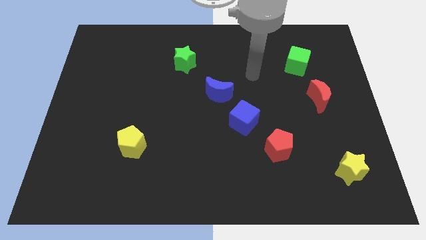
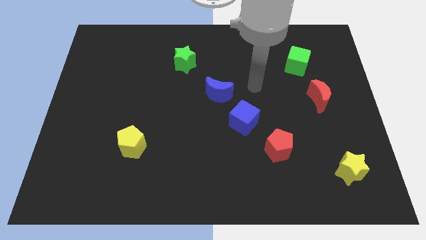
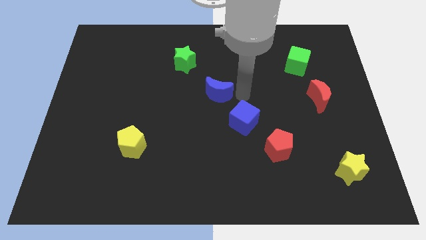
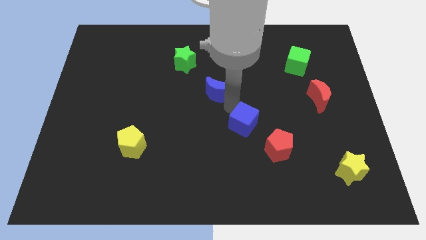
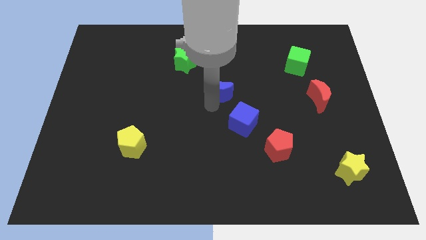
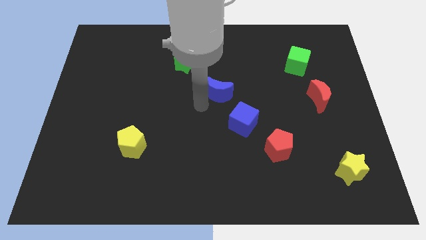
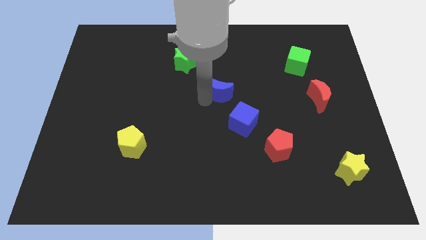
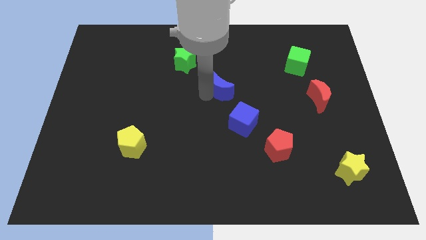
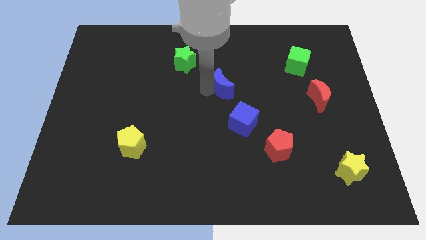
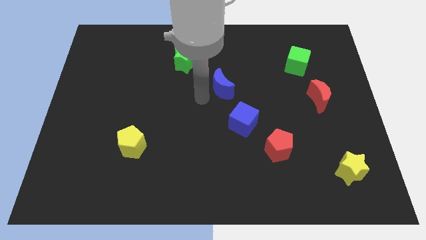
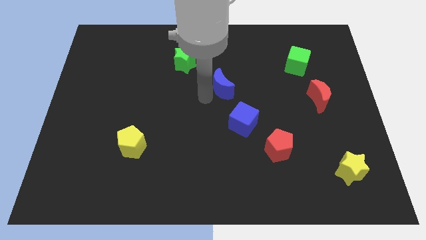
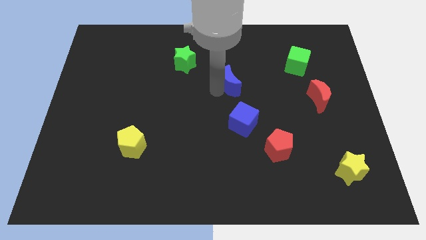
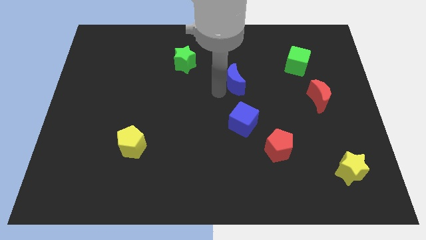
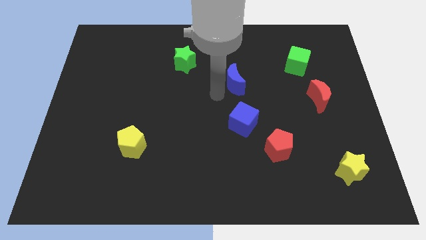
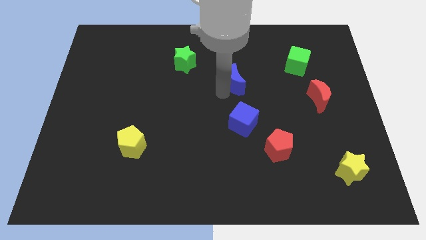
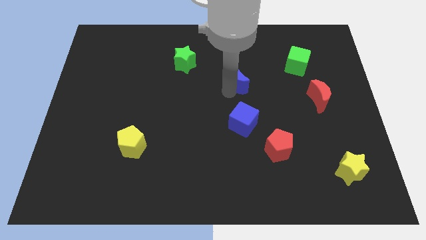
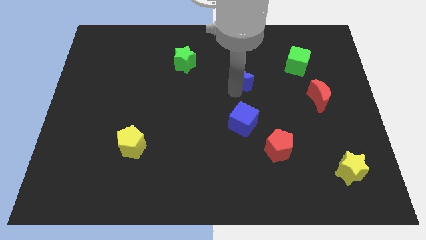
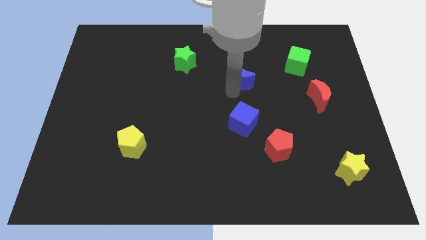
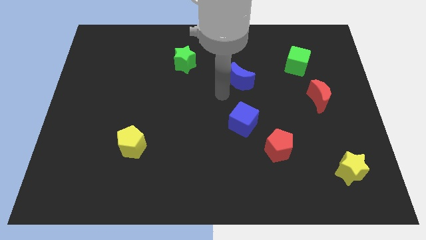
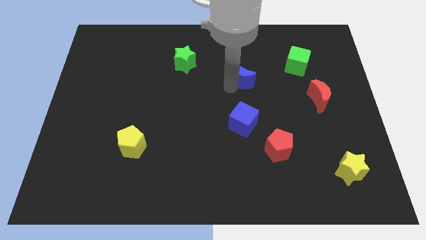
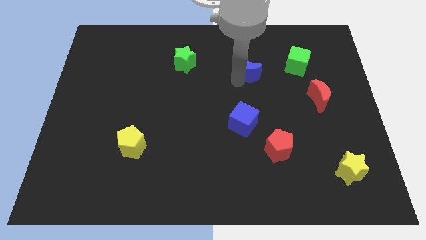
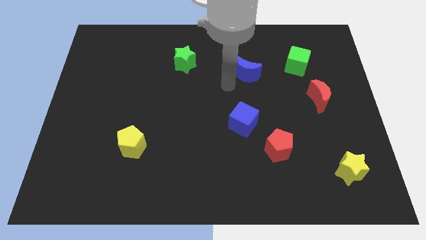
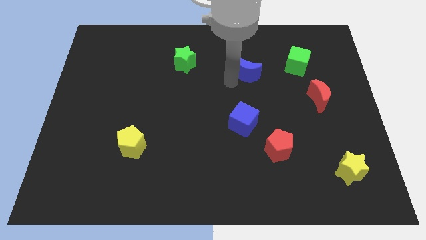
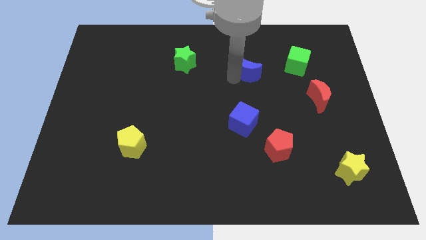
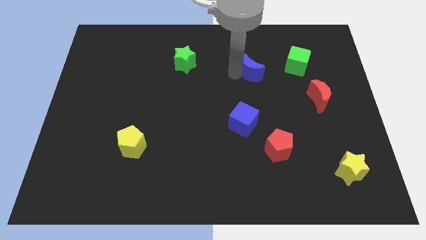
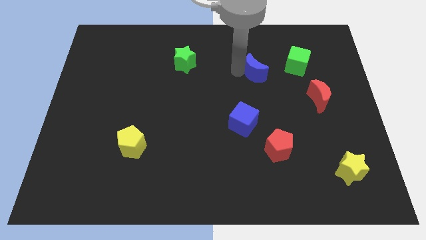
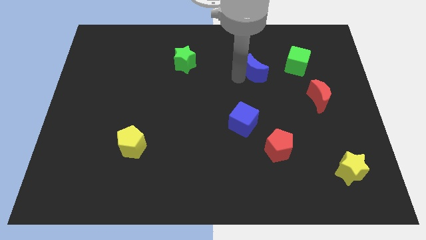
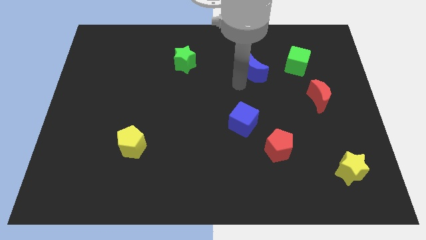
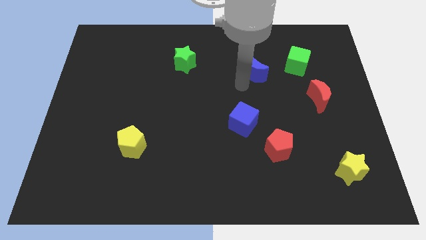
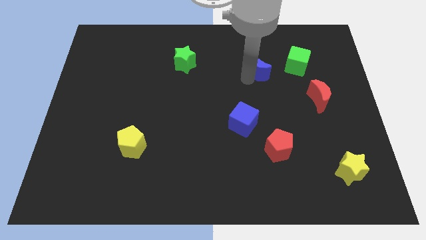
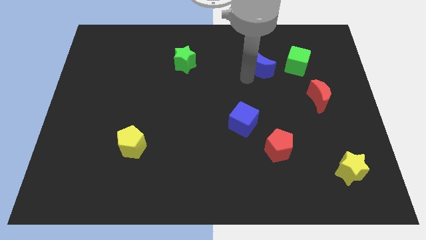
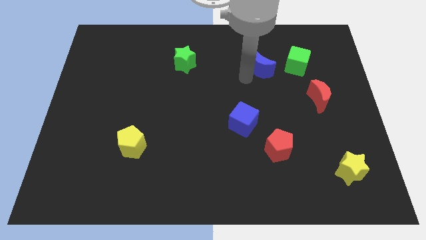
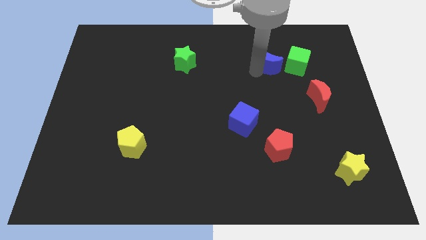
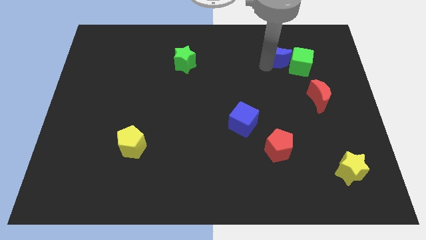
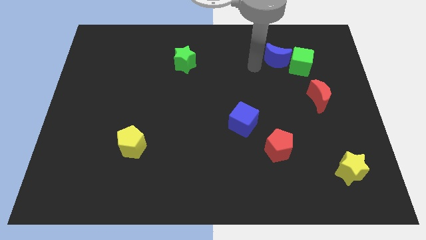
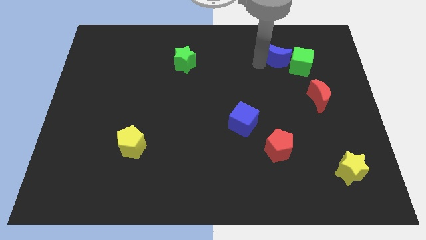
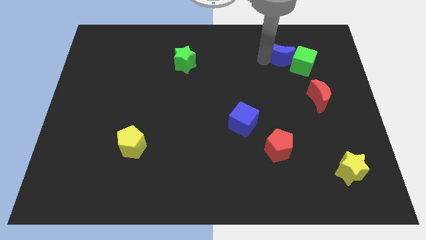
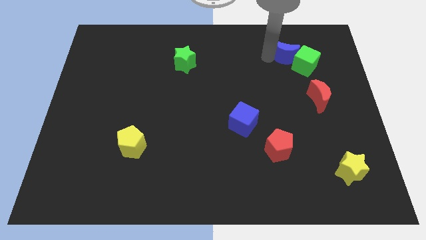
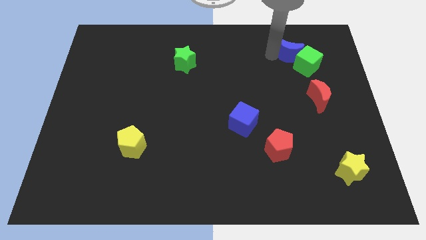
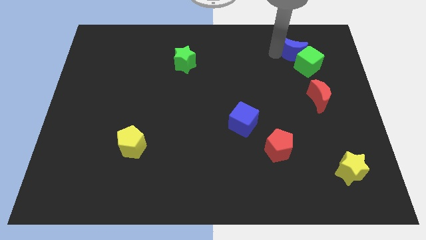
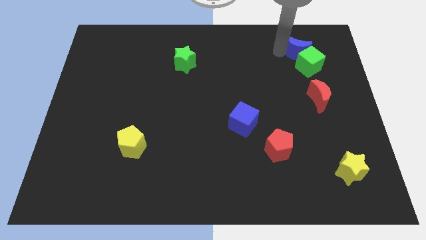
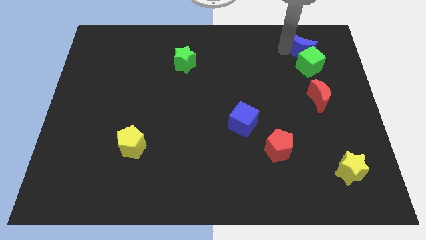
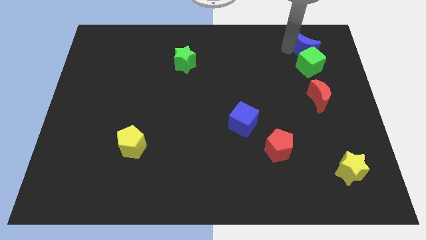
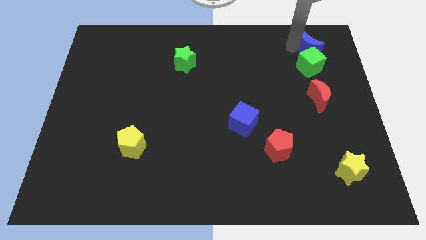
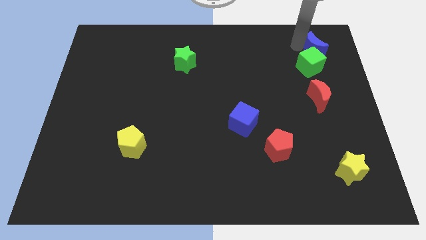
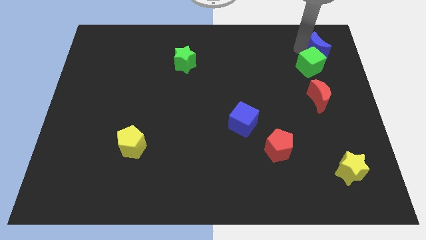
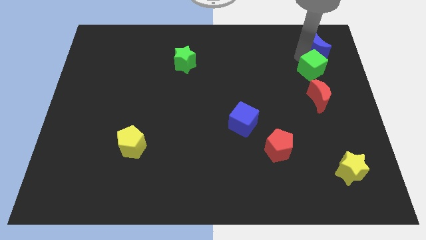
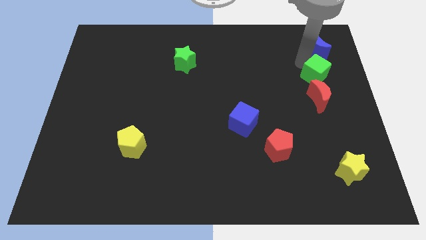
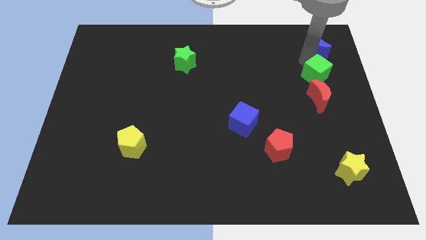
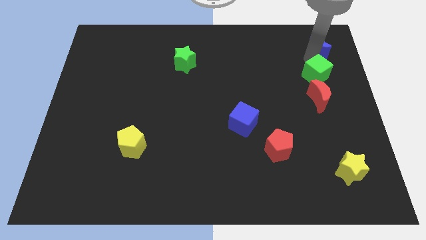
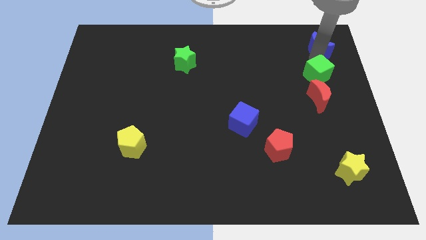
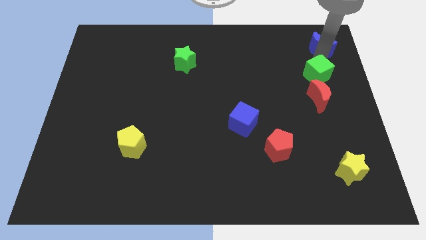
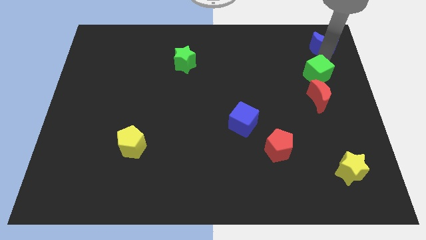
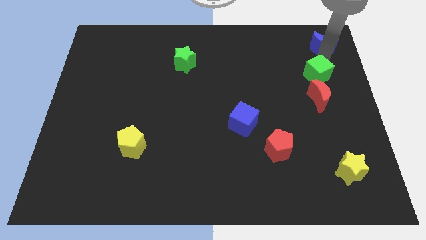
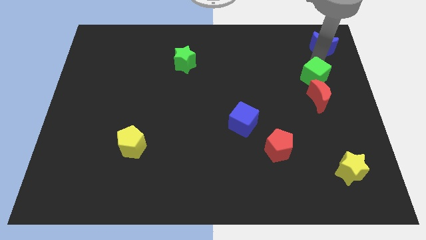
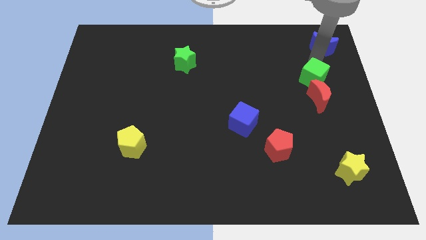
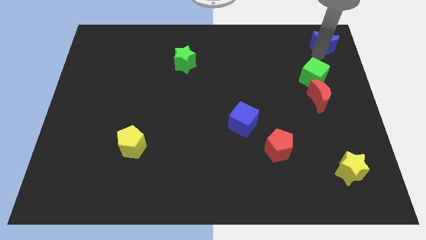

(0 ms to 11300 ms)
move the blue moon to the top right

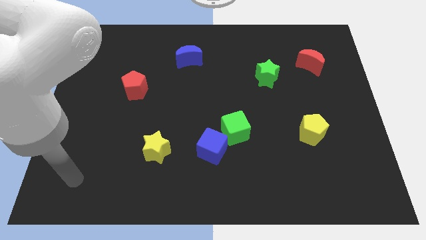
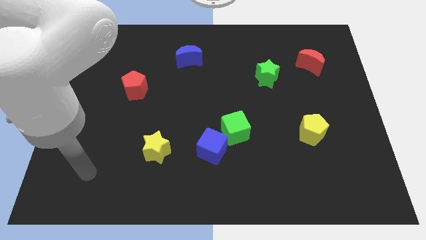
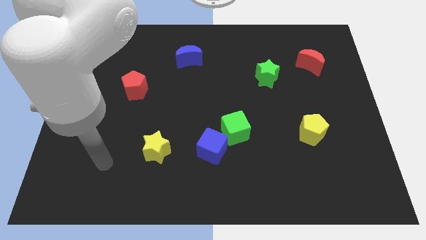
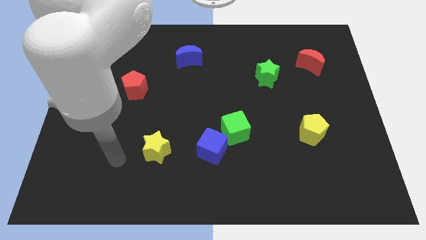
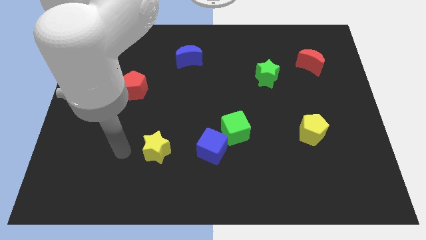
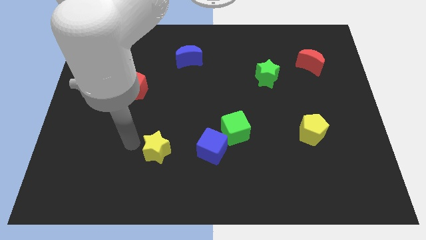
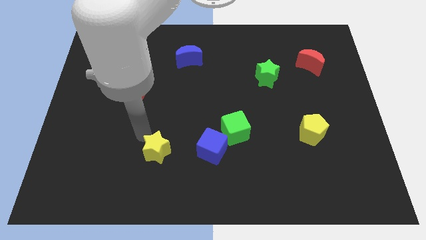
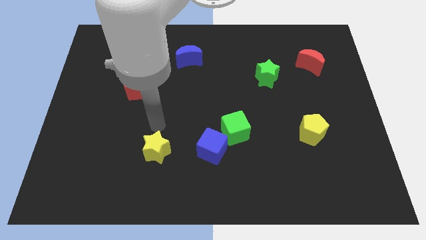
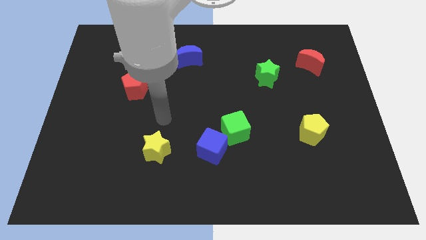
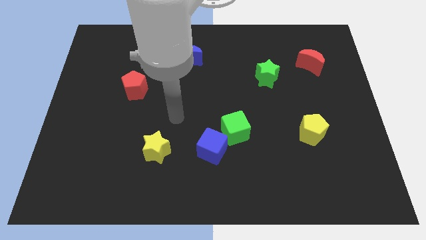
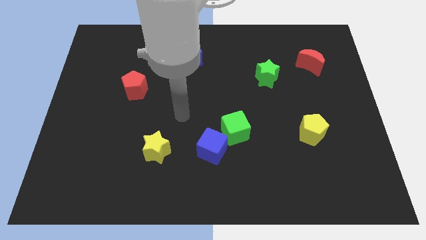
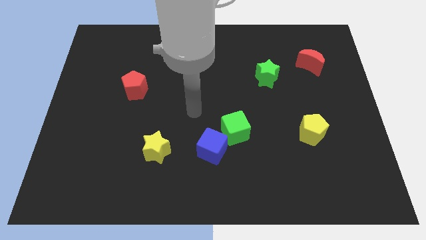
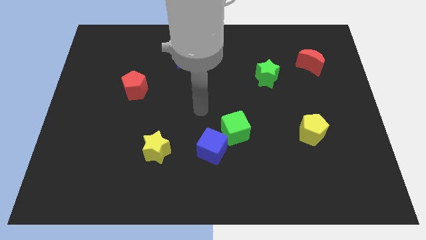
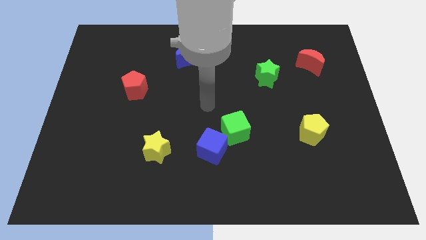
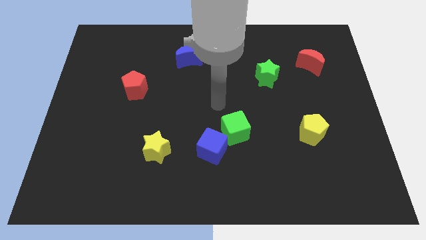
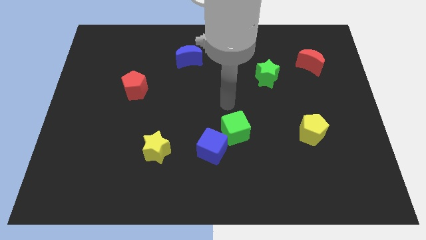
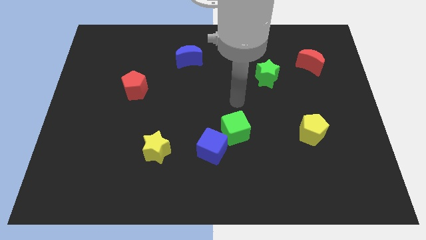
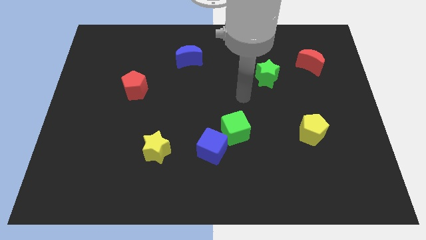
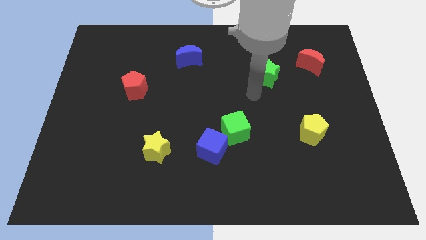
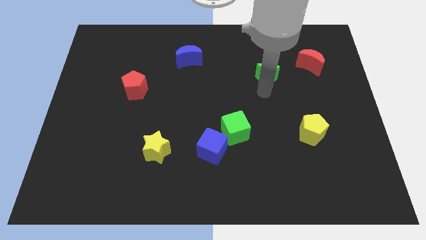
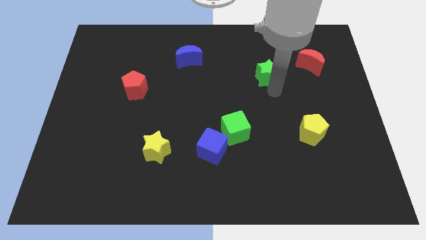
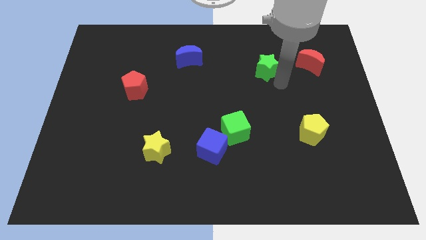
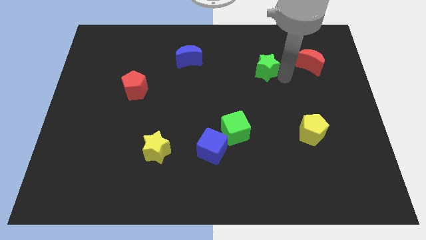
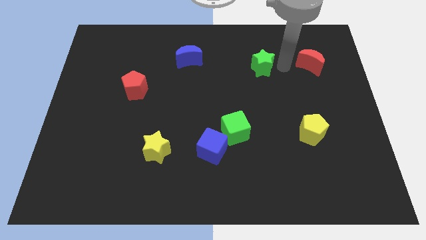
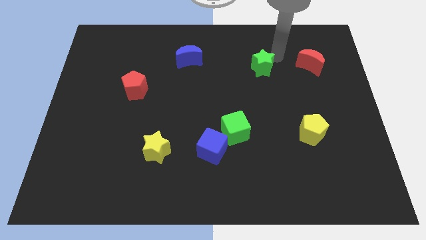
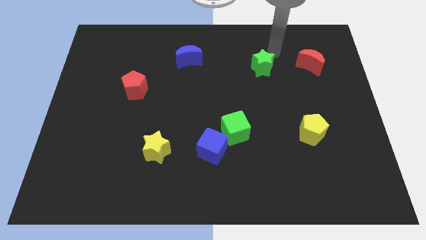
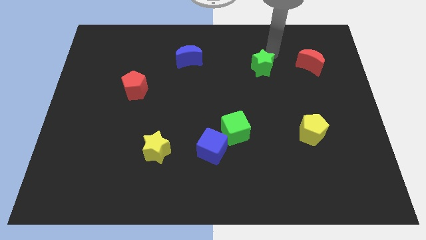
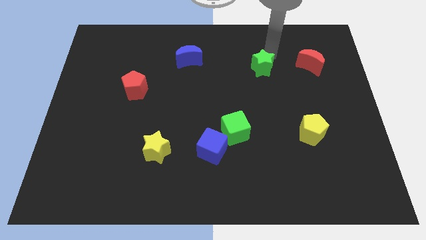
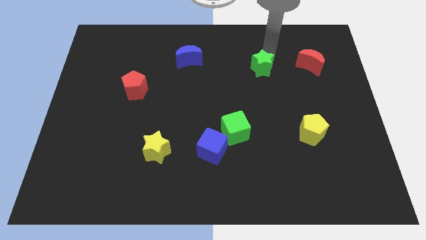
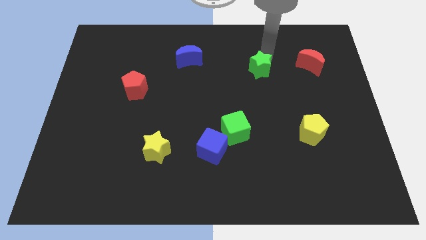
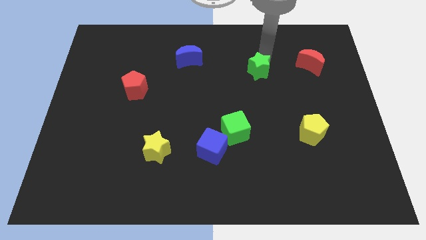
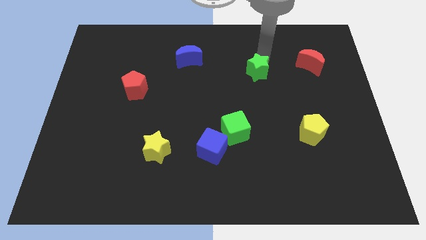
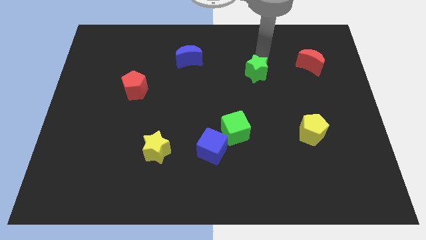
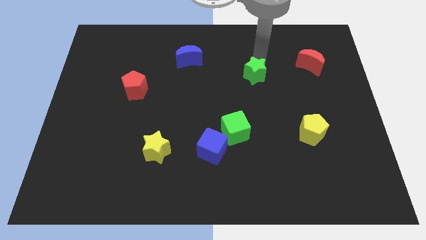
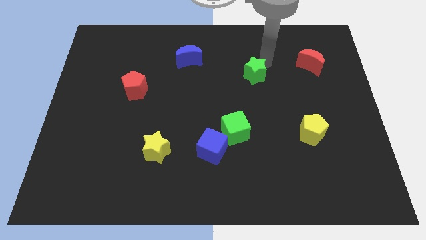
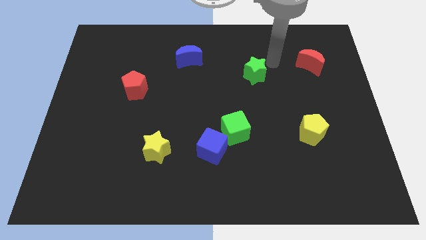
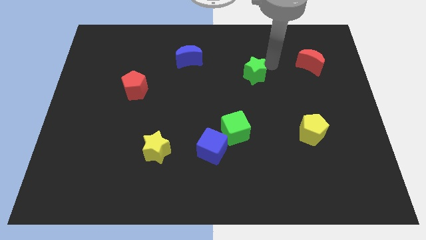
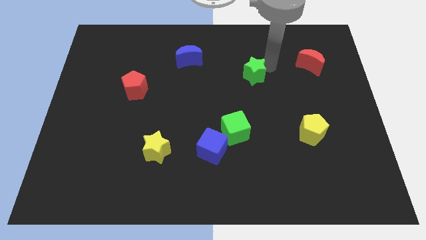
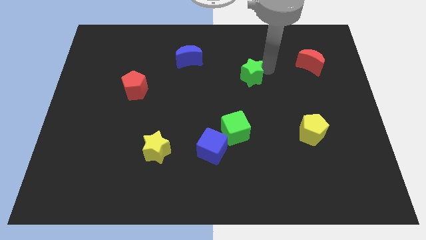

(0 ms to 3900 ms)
put the green star to the middle of the board
